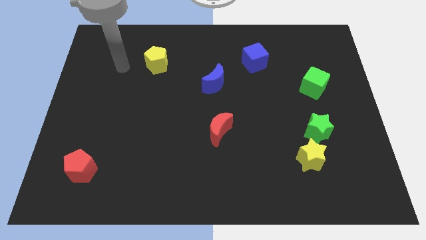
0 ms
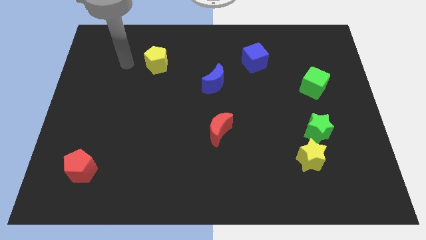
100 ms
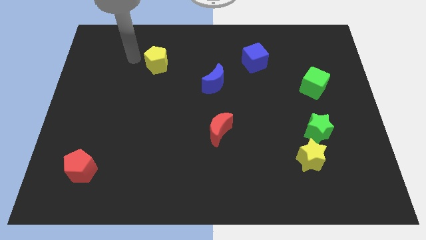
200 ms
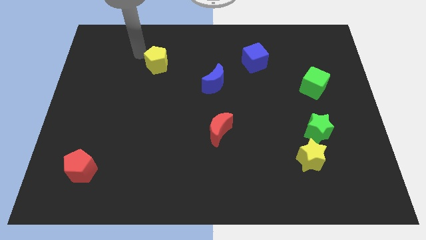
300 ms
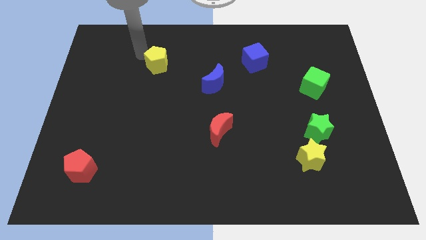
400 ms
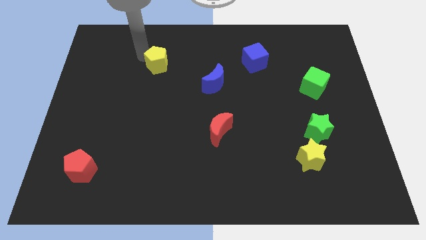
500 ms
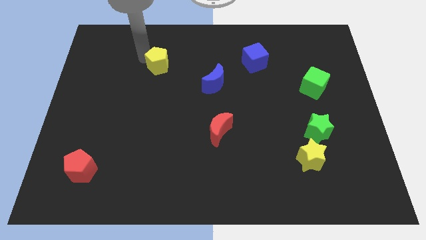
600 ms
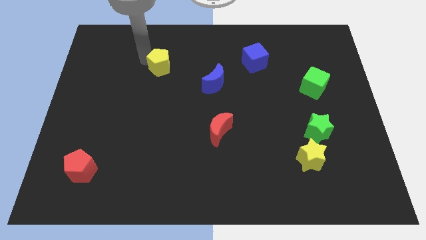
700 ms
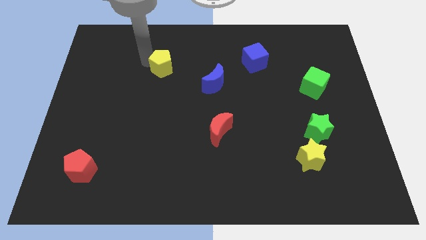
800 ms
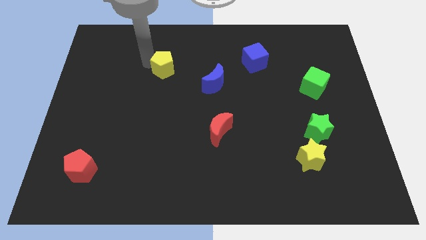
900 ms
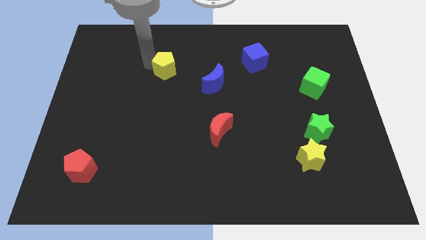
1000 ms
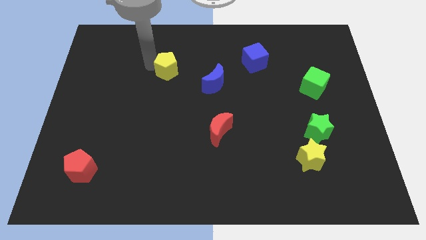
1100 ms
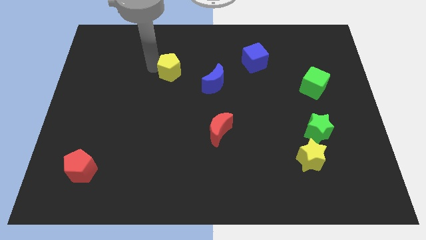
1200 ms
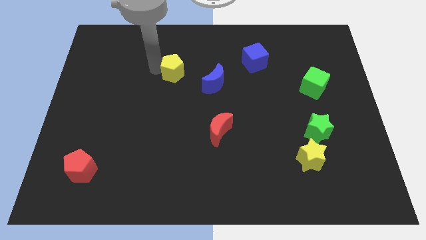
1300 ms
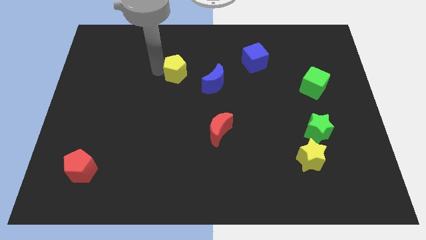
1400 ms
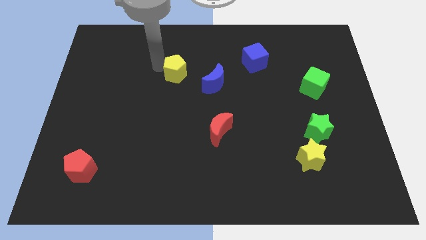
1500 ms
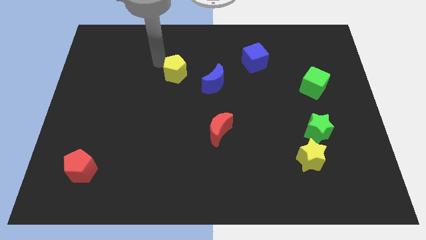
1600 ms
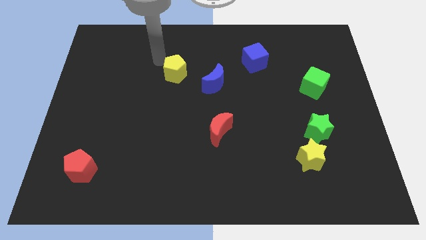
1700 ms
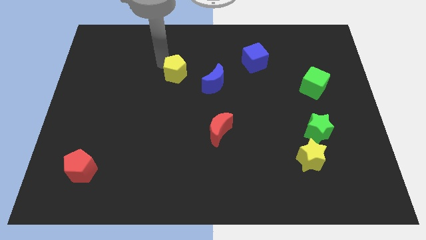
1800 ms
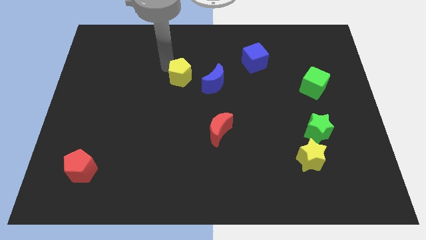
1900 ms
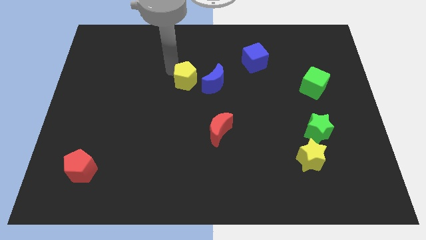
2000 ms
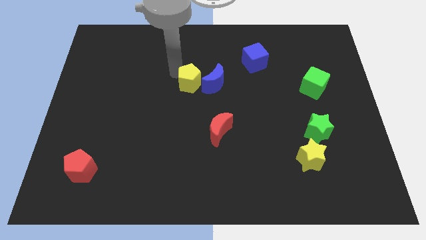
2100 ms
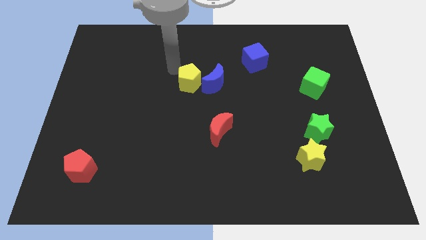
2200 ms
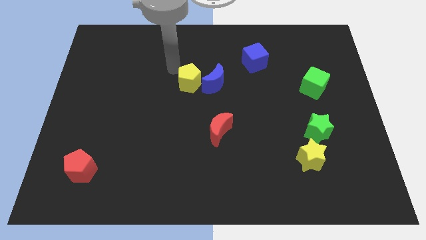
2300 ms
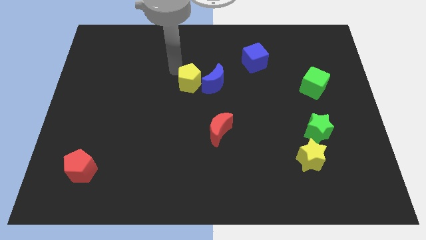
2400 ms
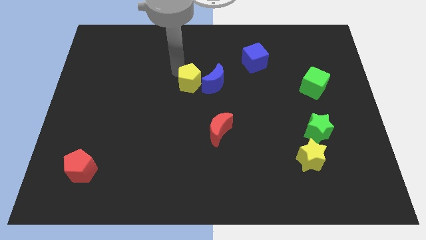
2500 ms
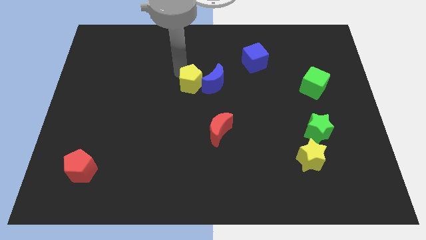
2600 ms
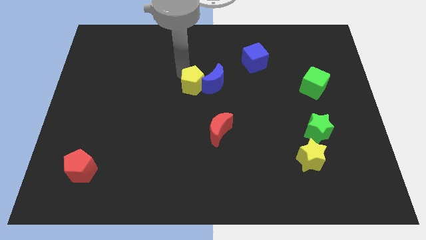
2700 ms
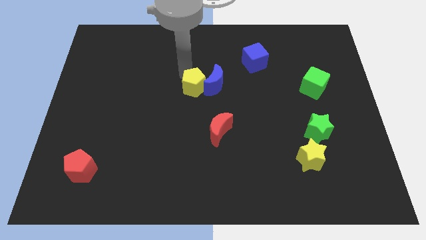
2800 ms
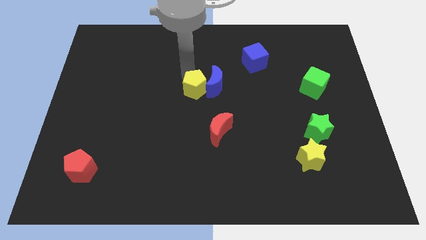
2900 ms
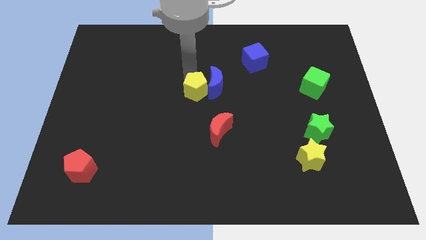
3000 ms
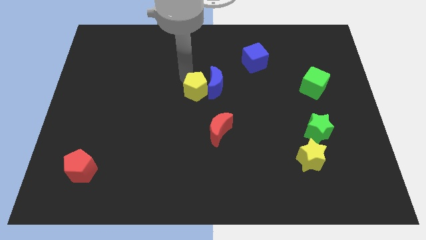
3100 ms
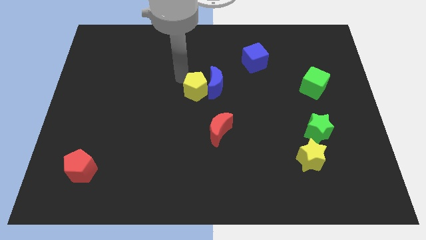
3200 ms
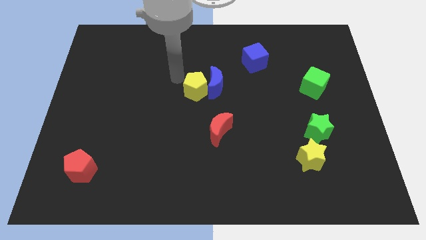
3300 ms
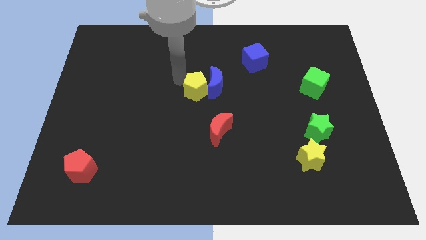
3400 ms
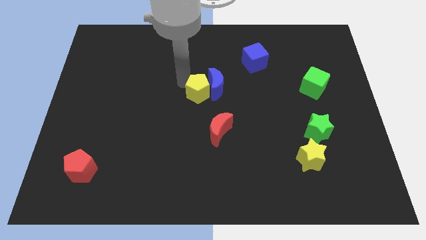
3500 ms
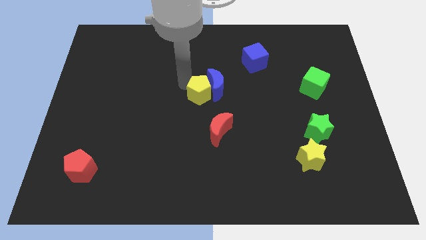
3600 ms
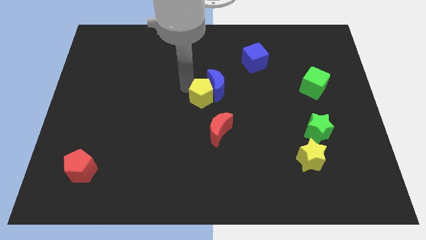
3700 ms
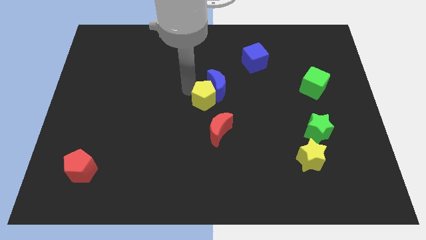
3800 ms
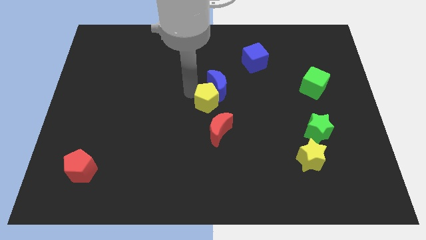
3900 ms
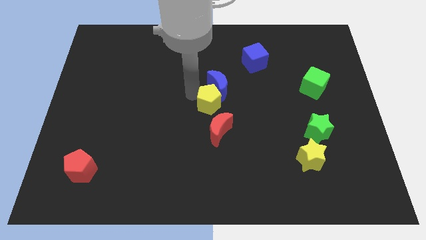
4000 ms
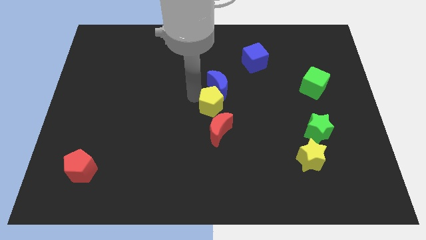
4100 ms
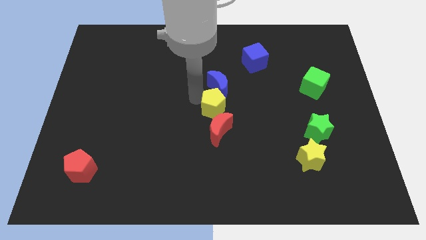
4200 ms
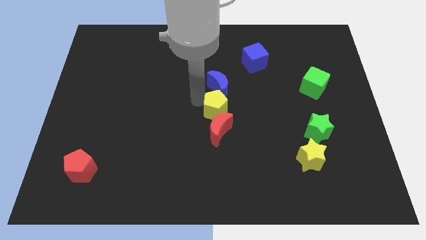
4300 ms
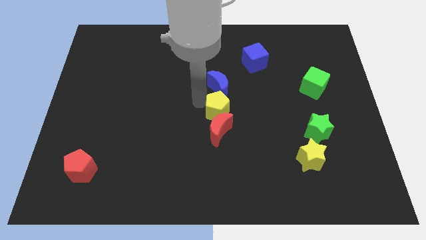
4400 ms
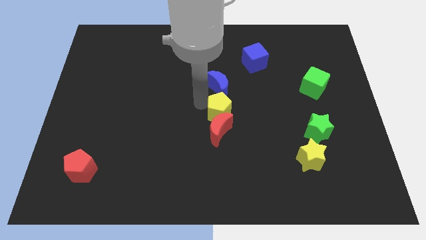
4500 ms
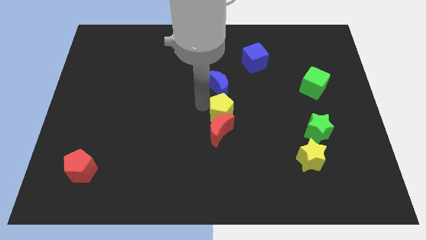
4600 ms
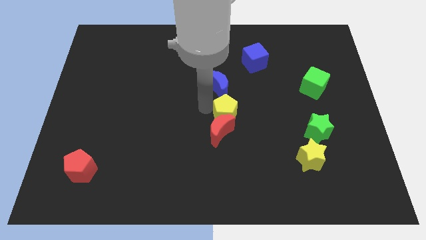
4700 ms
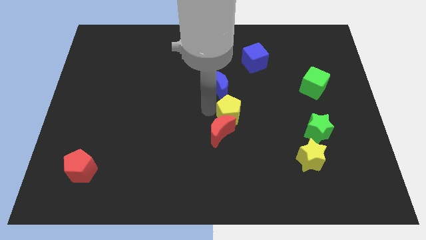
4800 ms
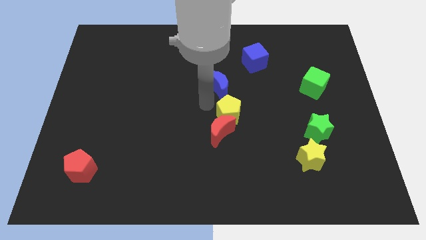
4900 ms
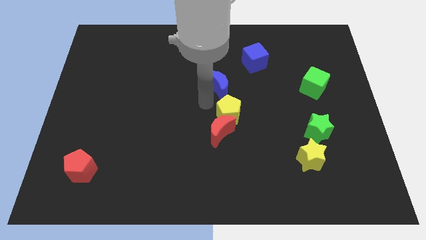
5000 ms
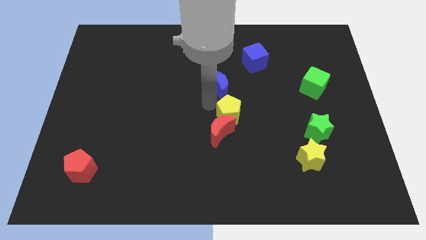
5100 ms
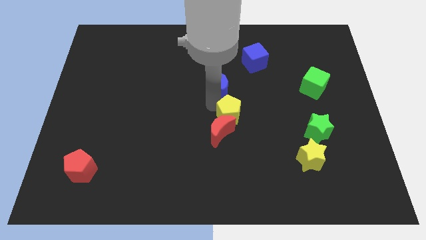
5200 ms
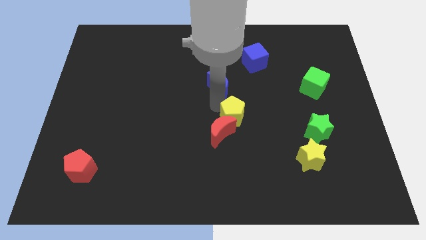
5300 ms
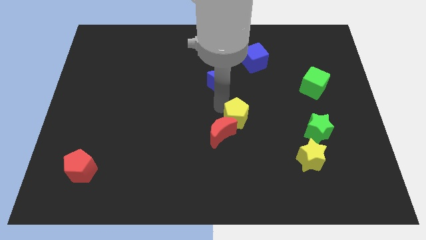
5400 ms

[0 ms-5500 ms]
slide the yellow pentagon to the right of the red moon

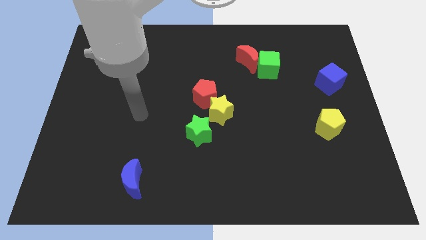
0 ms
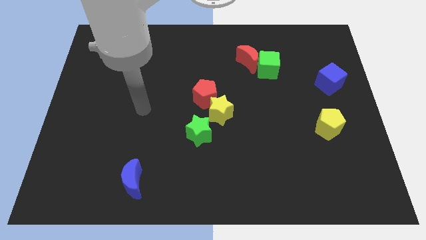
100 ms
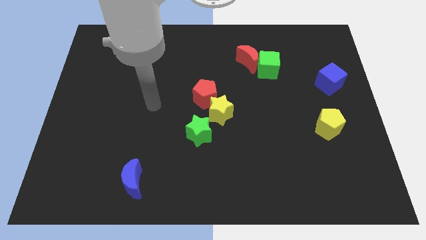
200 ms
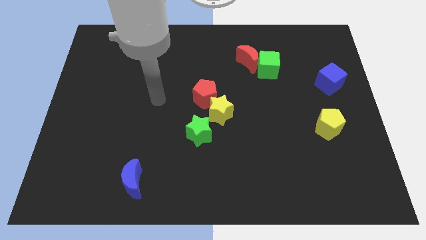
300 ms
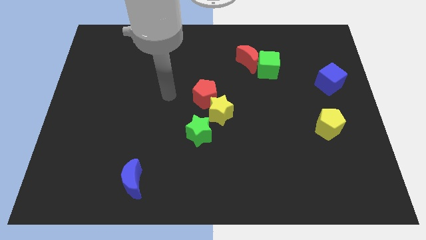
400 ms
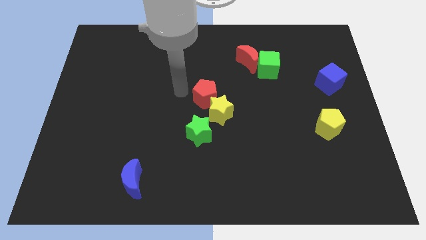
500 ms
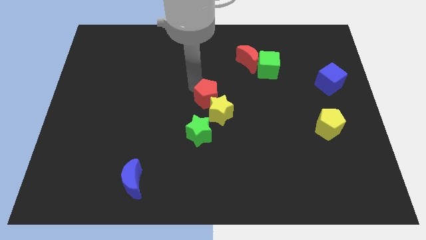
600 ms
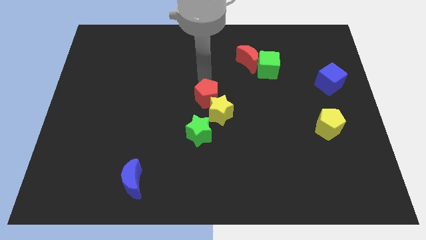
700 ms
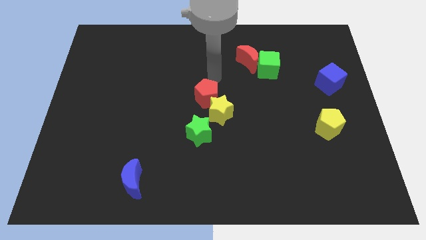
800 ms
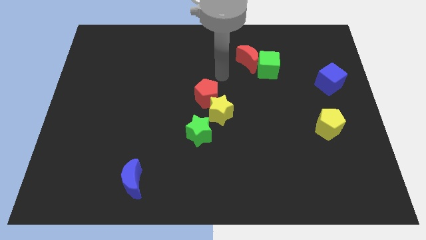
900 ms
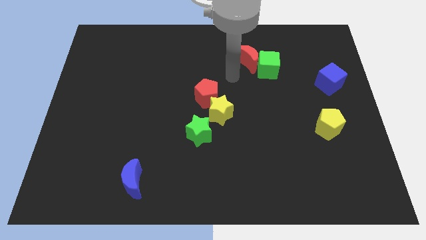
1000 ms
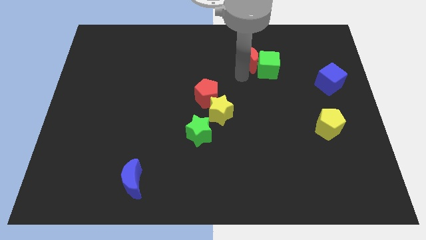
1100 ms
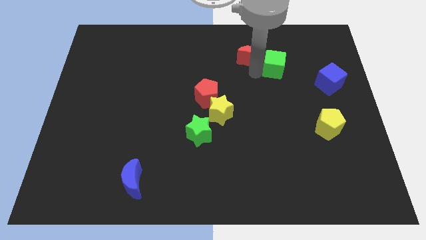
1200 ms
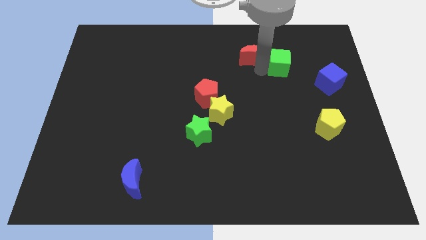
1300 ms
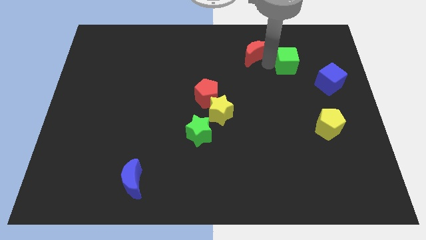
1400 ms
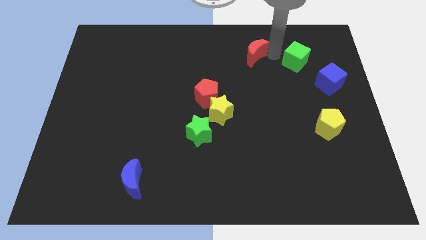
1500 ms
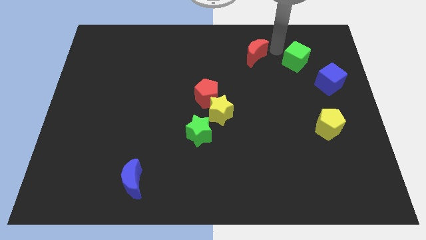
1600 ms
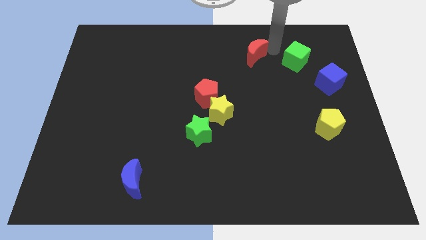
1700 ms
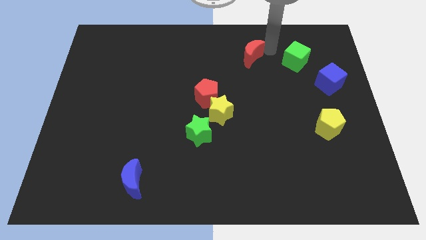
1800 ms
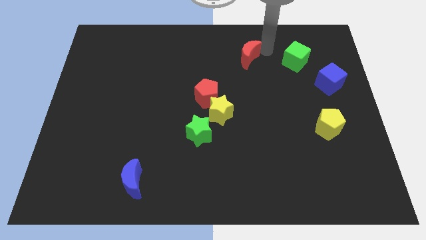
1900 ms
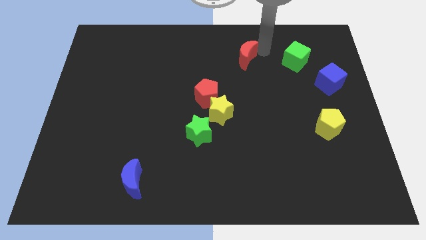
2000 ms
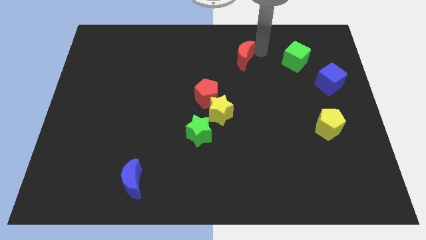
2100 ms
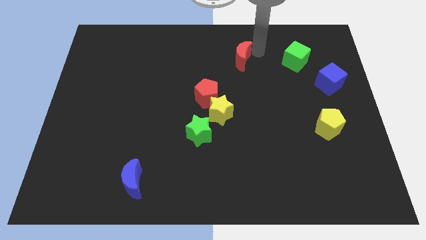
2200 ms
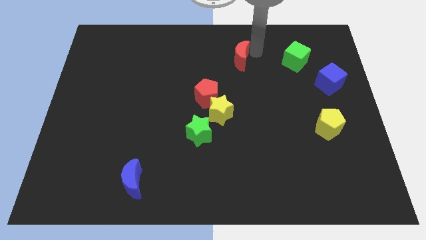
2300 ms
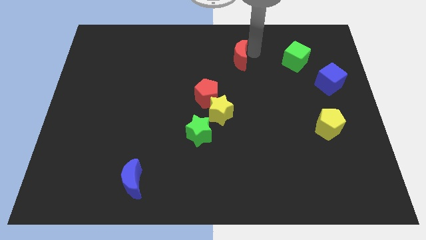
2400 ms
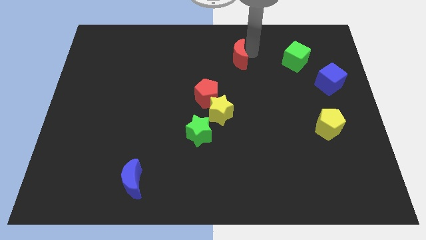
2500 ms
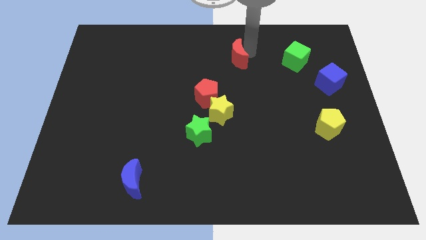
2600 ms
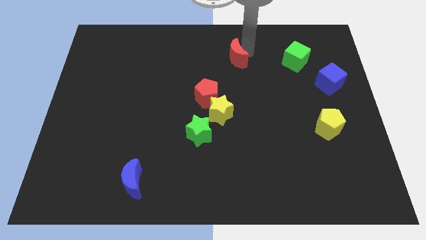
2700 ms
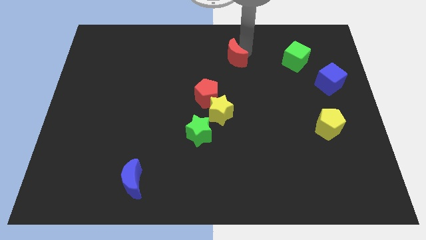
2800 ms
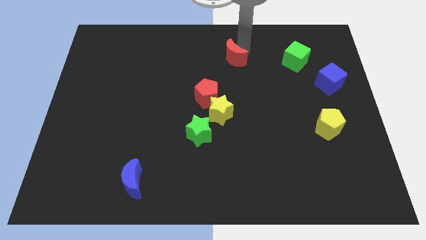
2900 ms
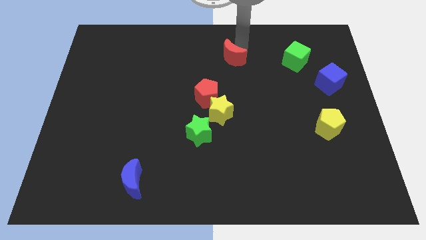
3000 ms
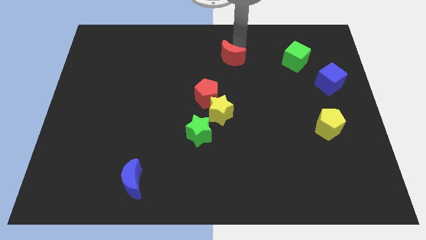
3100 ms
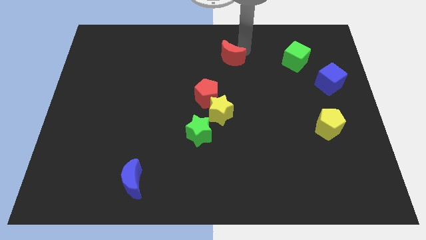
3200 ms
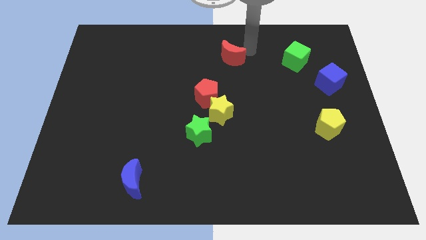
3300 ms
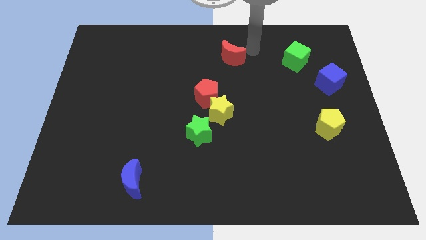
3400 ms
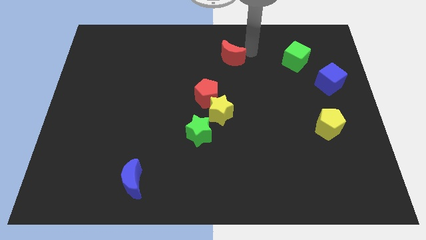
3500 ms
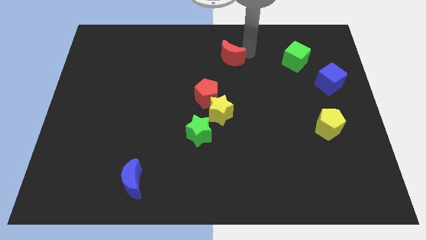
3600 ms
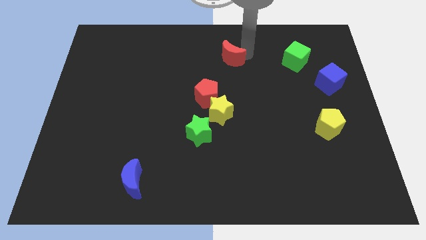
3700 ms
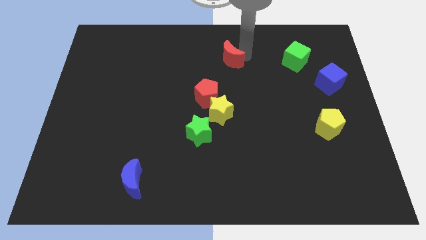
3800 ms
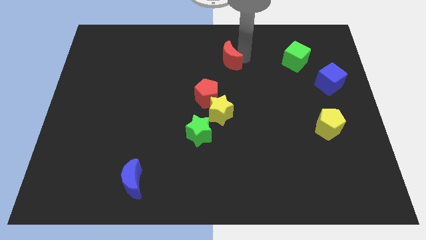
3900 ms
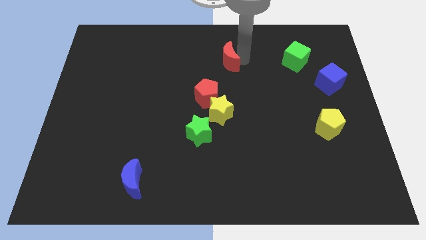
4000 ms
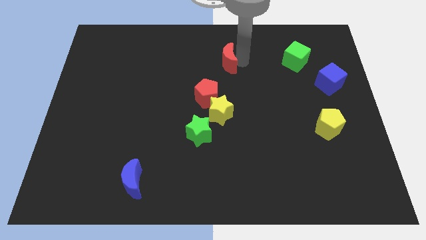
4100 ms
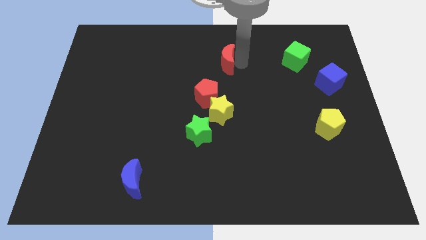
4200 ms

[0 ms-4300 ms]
slide the red moon above the red pentagon
